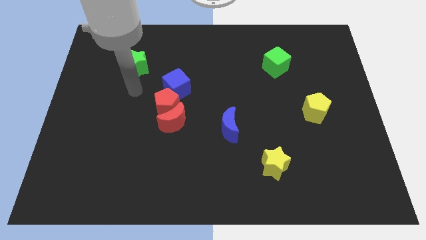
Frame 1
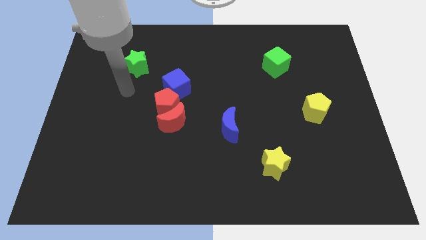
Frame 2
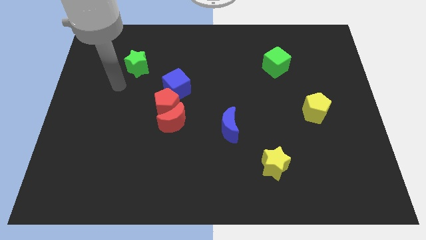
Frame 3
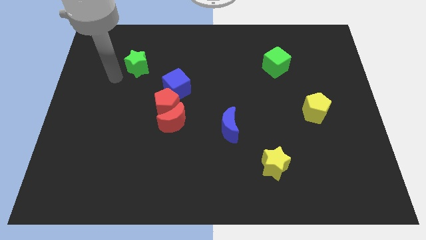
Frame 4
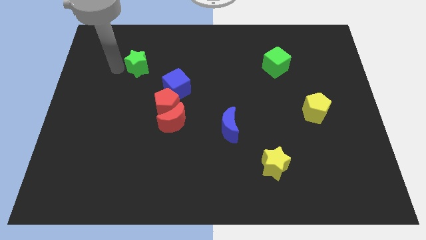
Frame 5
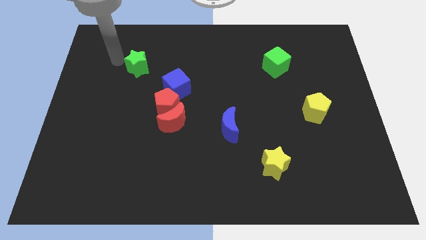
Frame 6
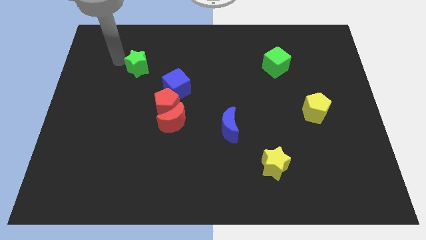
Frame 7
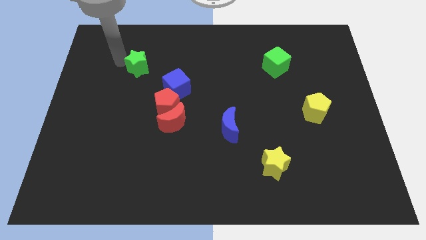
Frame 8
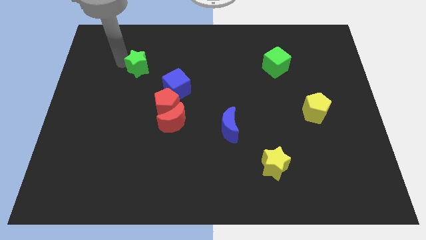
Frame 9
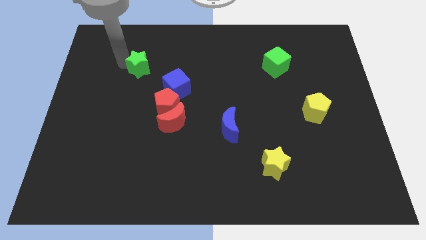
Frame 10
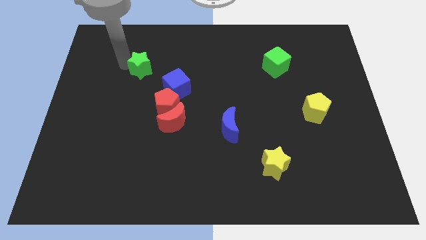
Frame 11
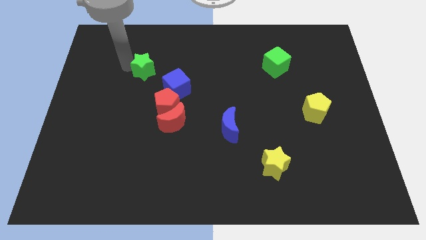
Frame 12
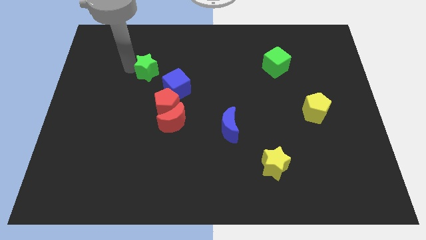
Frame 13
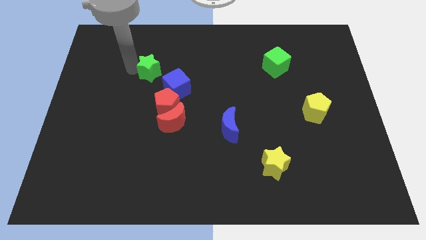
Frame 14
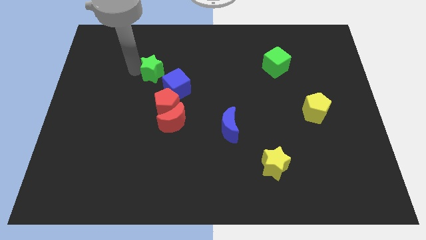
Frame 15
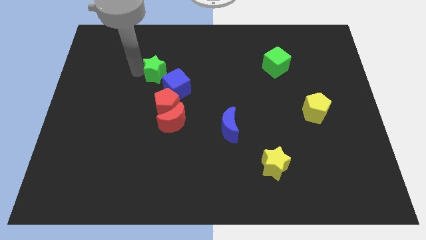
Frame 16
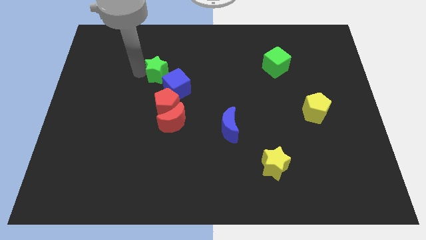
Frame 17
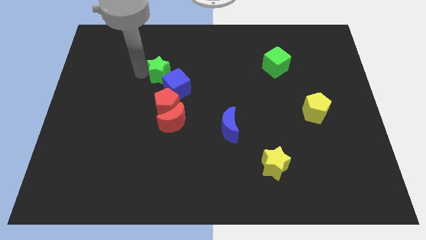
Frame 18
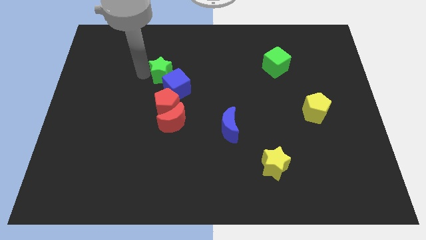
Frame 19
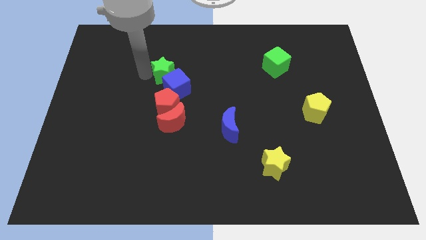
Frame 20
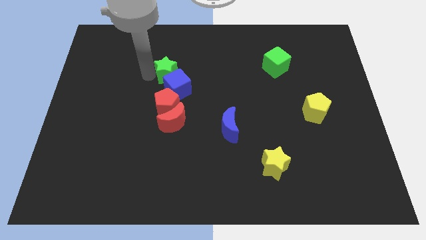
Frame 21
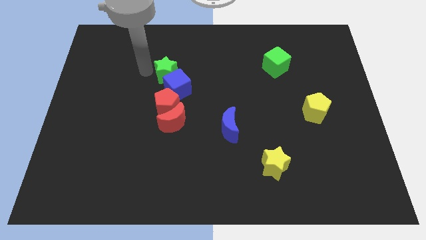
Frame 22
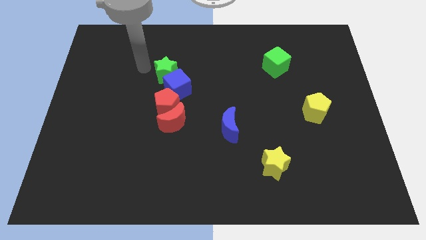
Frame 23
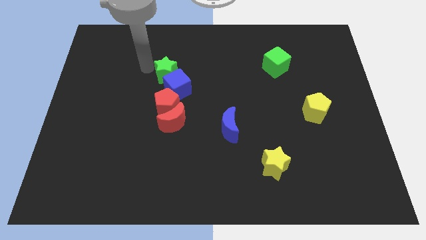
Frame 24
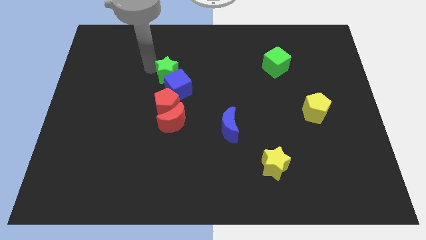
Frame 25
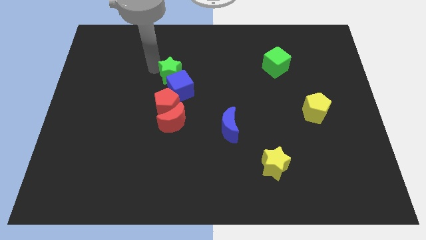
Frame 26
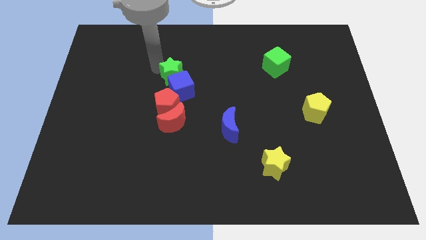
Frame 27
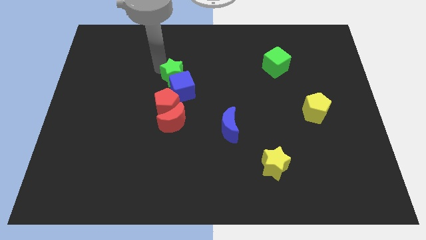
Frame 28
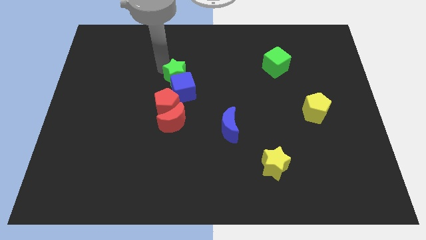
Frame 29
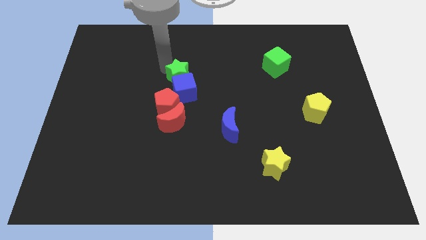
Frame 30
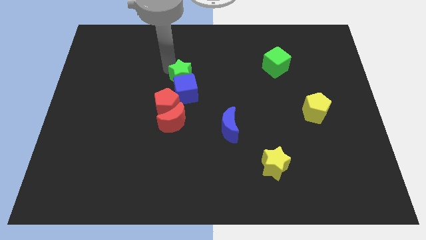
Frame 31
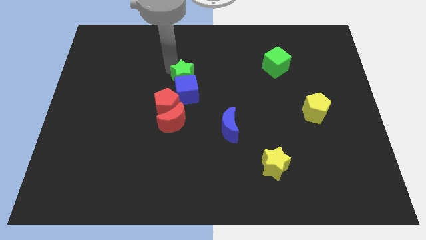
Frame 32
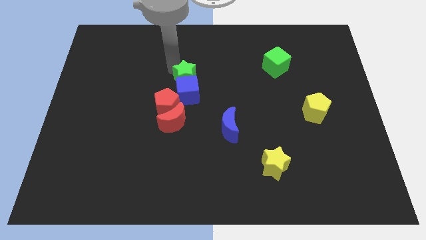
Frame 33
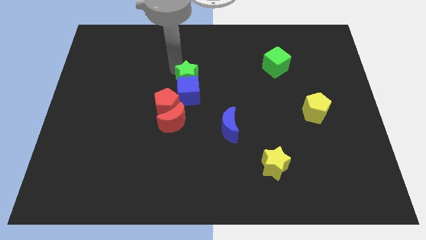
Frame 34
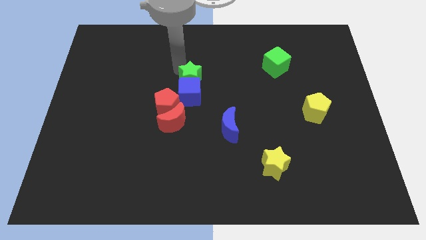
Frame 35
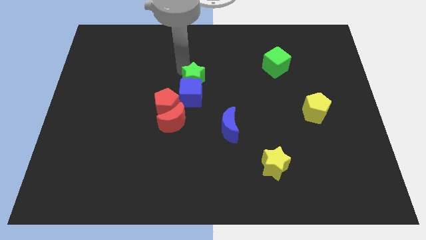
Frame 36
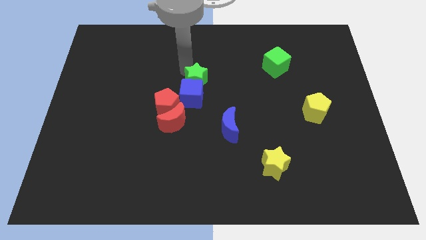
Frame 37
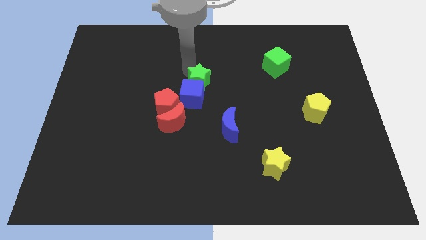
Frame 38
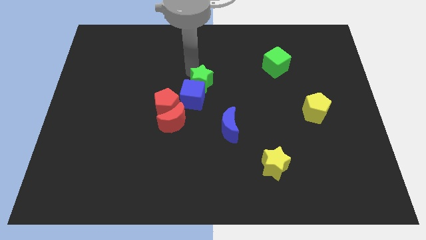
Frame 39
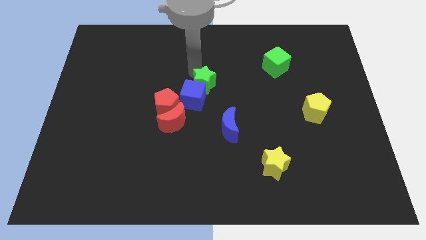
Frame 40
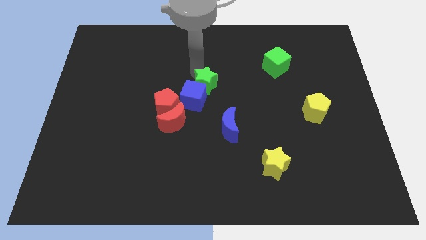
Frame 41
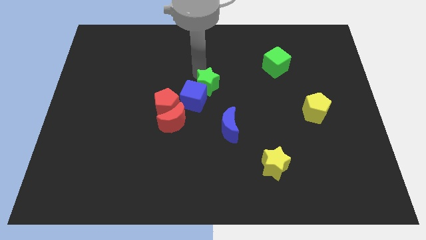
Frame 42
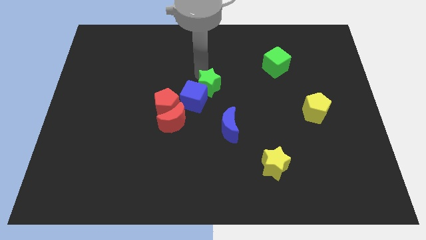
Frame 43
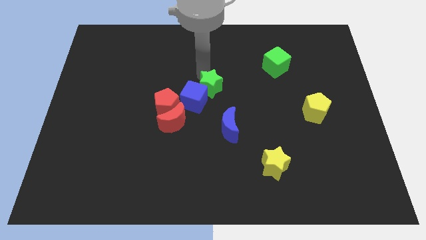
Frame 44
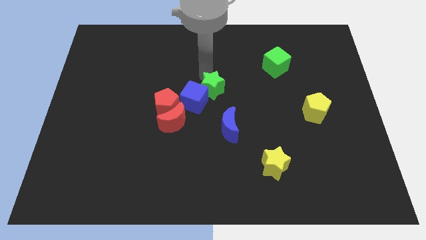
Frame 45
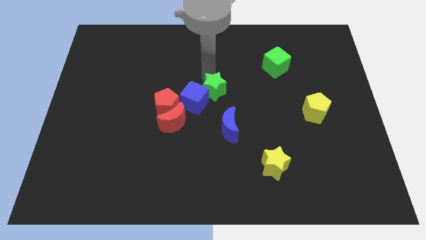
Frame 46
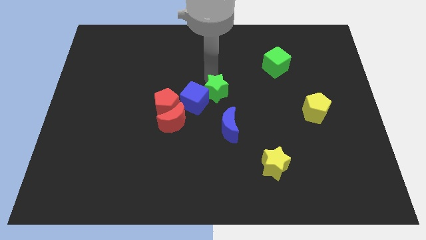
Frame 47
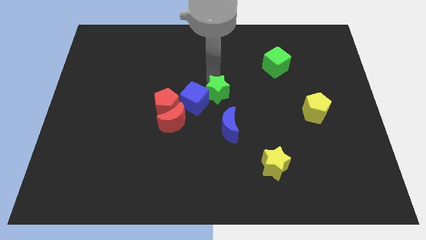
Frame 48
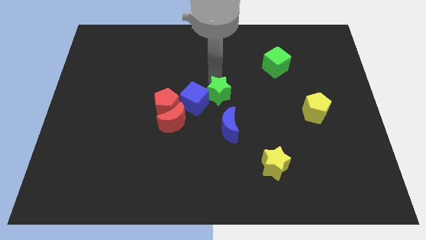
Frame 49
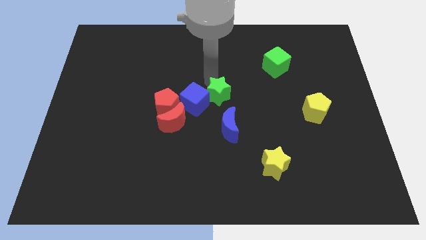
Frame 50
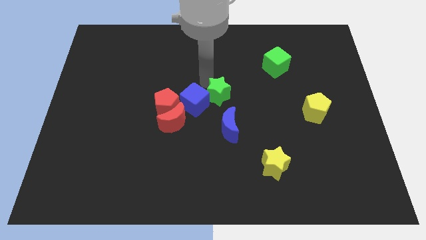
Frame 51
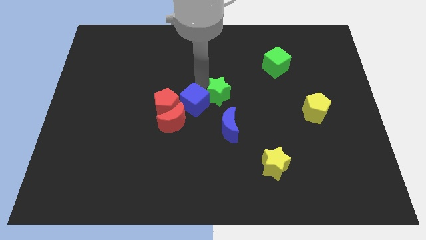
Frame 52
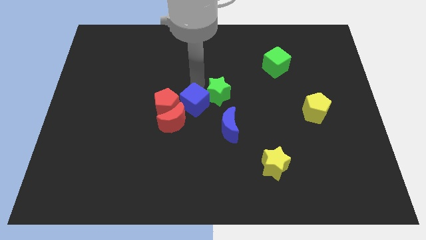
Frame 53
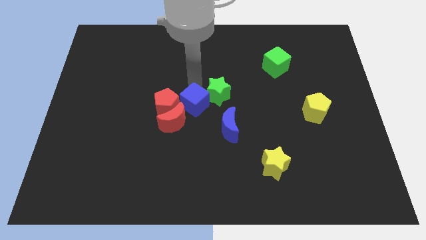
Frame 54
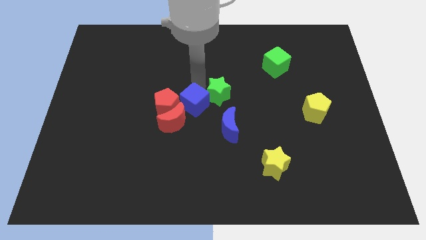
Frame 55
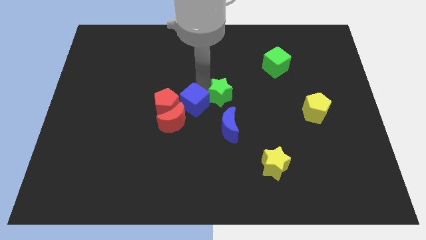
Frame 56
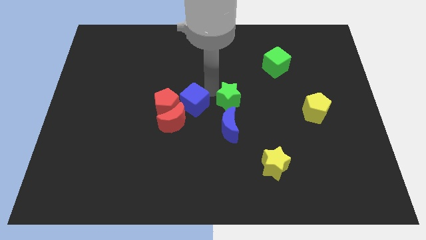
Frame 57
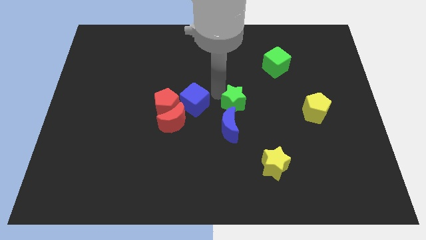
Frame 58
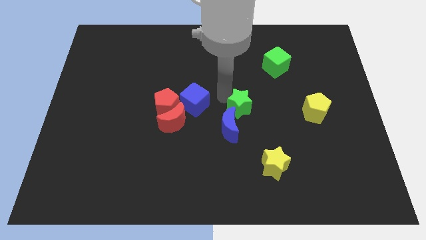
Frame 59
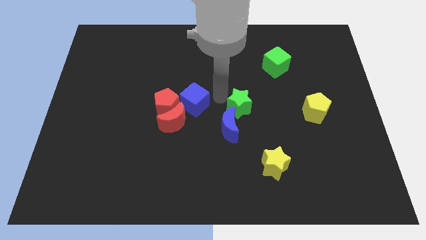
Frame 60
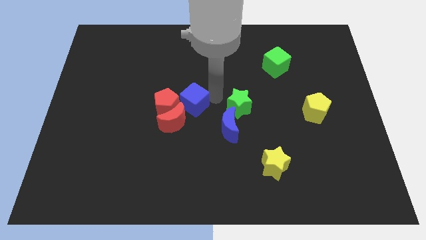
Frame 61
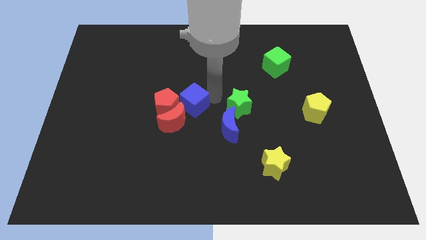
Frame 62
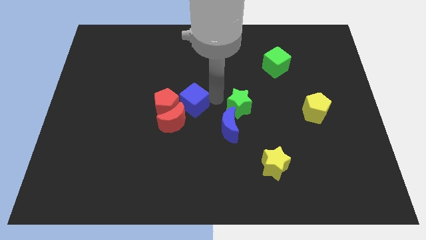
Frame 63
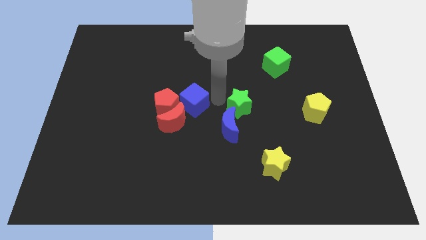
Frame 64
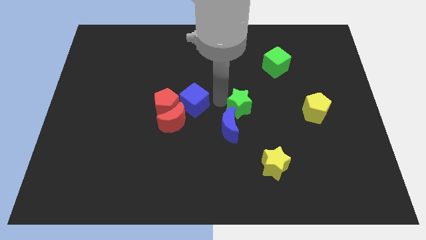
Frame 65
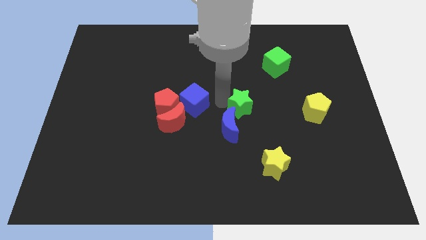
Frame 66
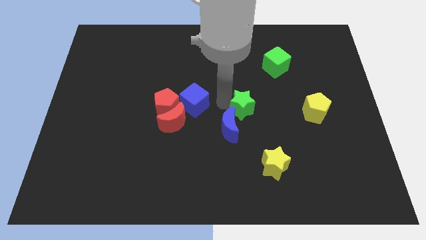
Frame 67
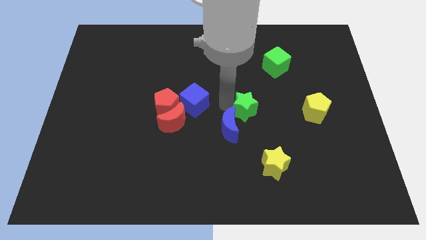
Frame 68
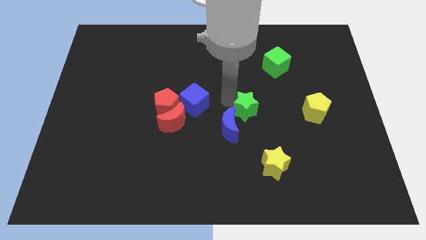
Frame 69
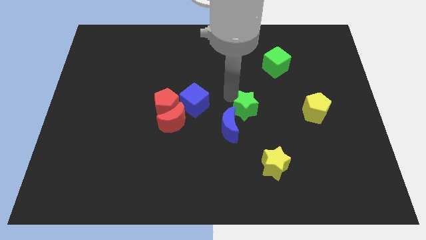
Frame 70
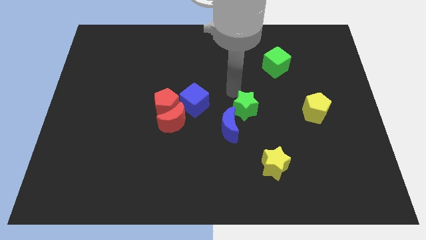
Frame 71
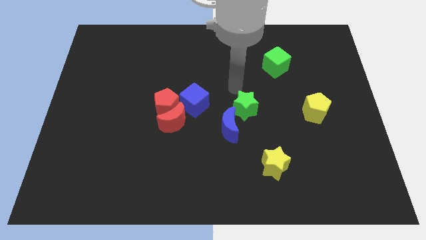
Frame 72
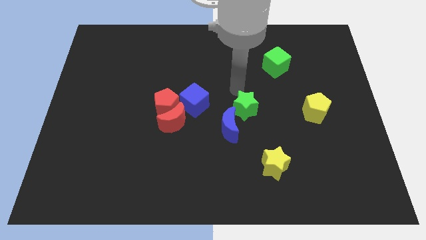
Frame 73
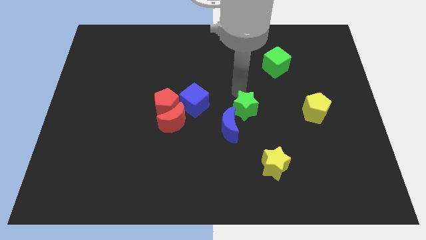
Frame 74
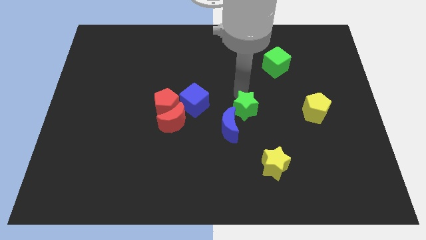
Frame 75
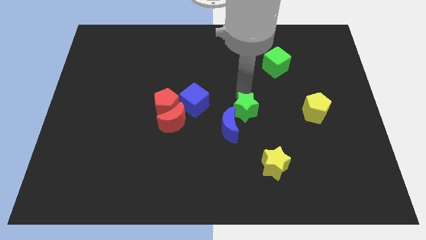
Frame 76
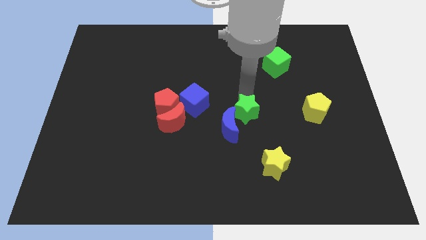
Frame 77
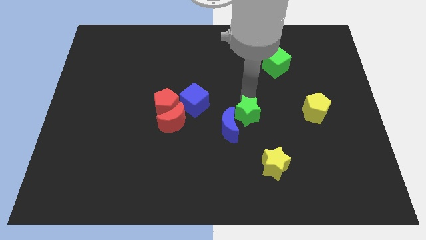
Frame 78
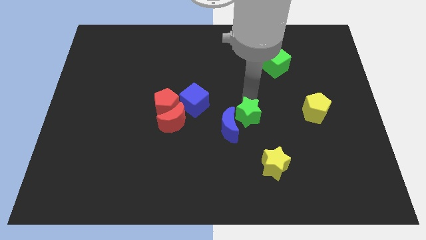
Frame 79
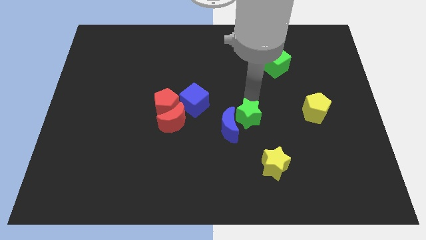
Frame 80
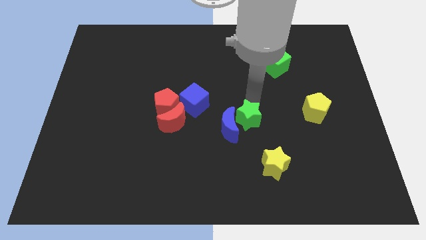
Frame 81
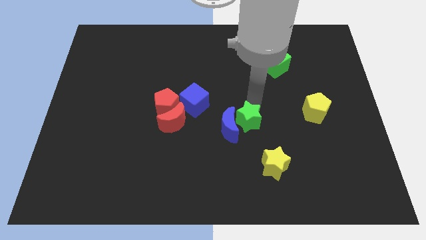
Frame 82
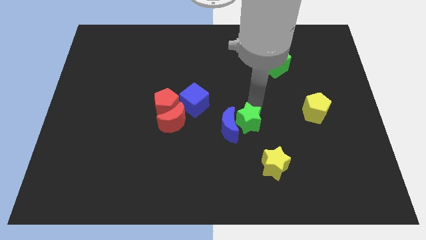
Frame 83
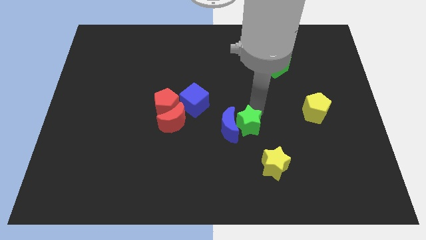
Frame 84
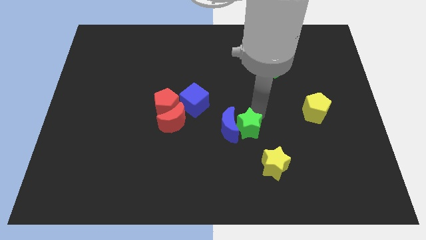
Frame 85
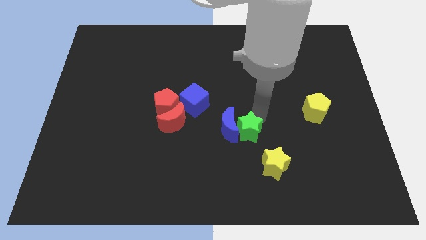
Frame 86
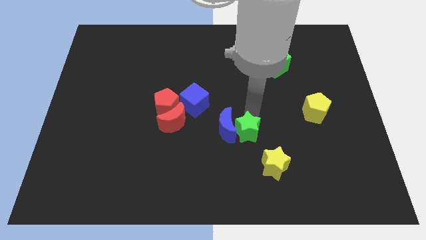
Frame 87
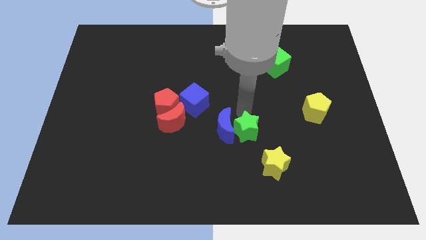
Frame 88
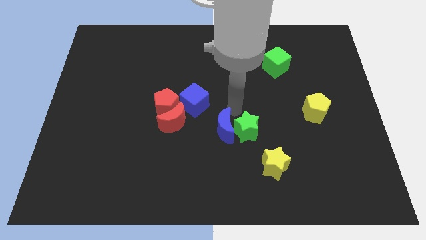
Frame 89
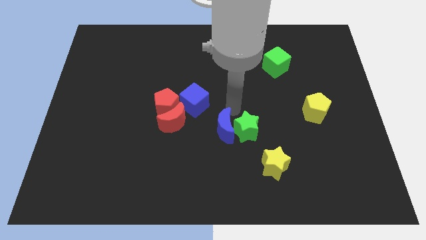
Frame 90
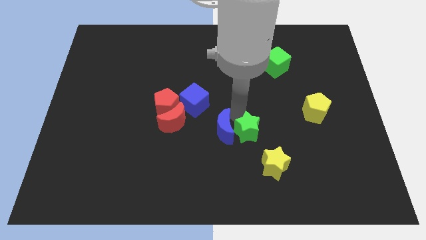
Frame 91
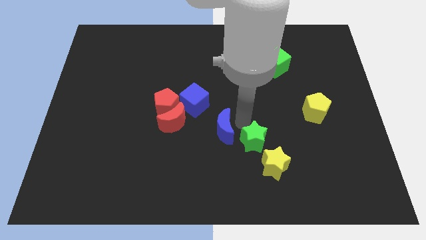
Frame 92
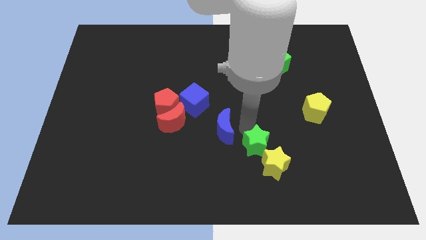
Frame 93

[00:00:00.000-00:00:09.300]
slide the green star towards the yellow star
